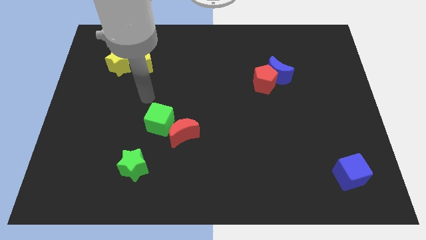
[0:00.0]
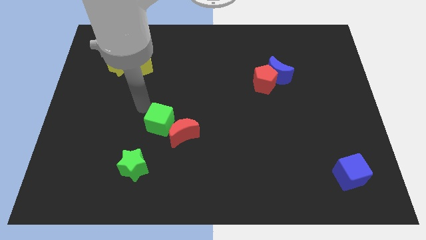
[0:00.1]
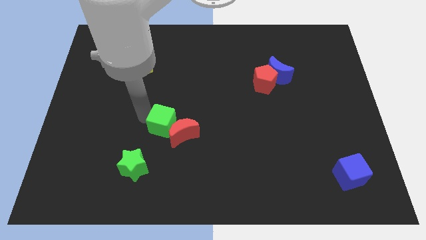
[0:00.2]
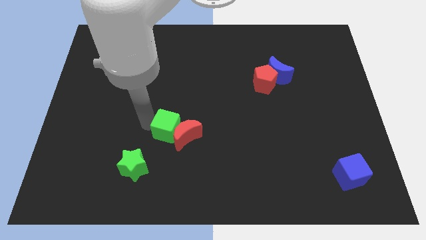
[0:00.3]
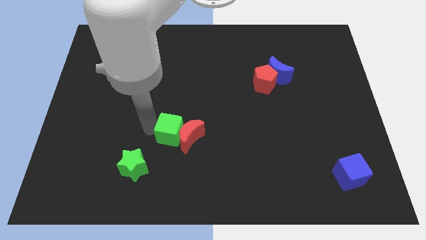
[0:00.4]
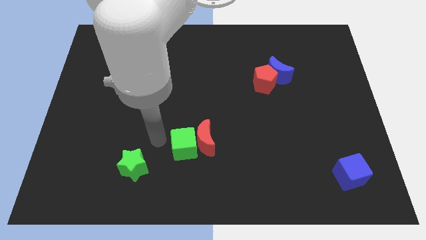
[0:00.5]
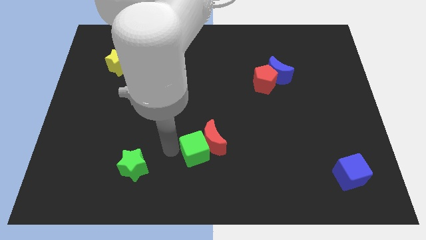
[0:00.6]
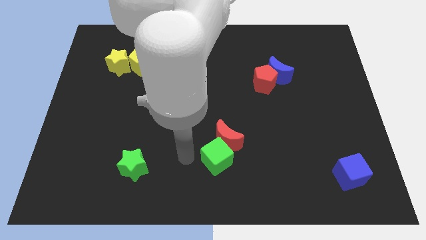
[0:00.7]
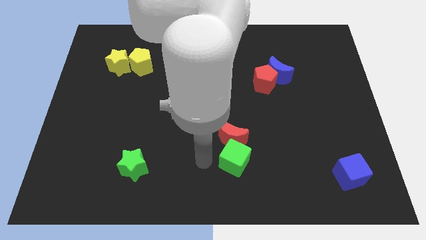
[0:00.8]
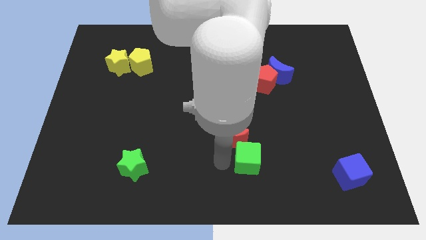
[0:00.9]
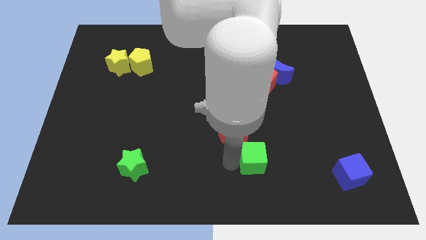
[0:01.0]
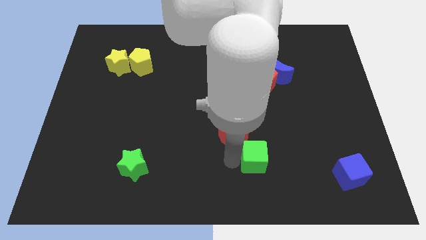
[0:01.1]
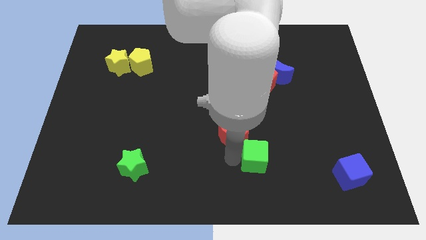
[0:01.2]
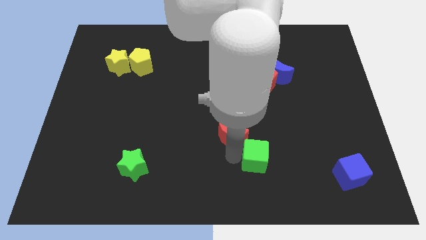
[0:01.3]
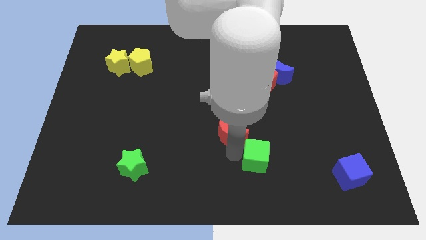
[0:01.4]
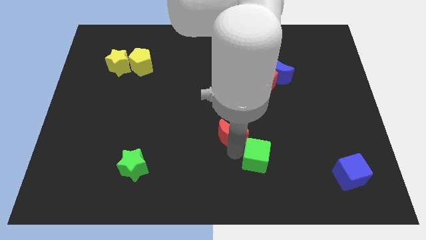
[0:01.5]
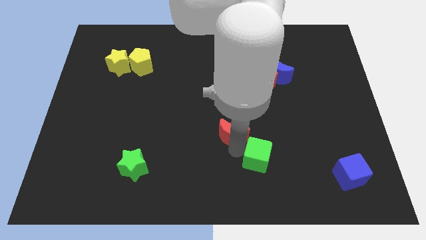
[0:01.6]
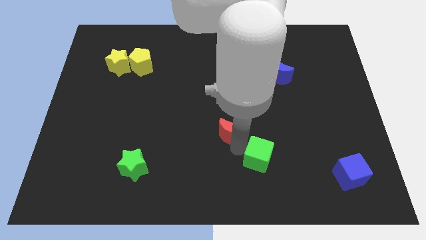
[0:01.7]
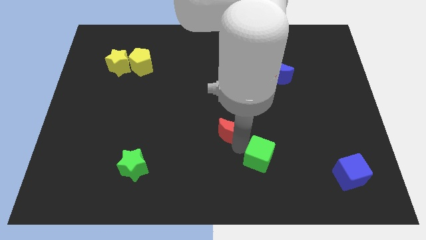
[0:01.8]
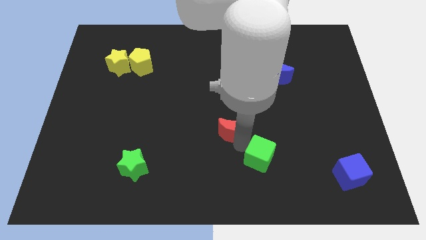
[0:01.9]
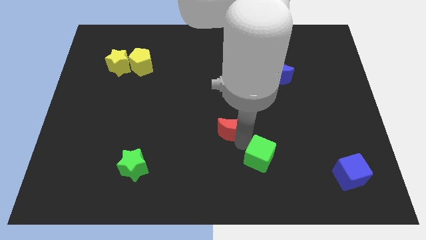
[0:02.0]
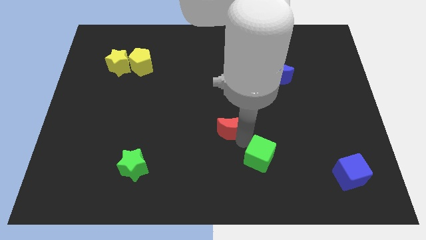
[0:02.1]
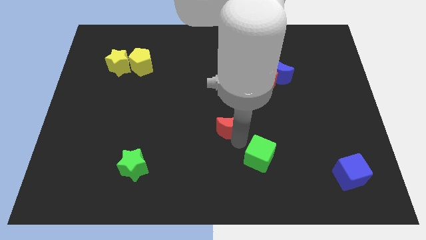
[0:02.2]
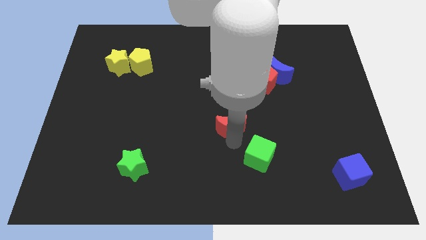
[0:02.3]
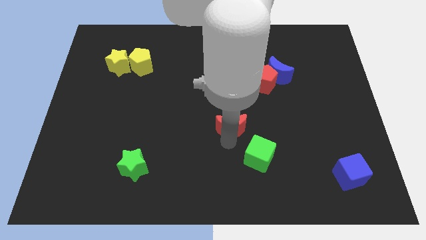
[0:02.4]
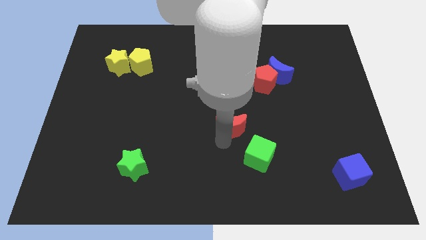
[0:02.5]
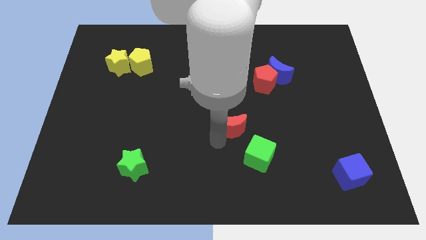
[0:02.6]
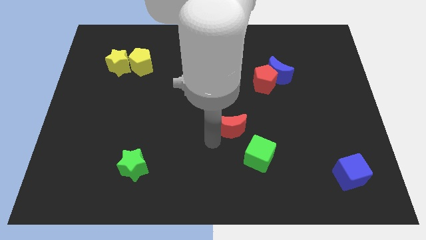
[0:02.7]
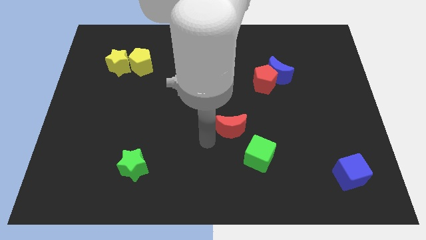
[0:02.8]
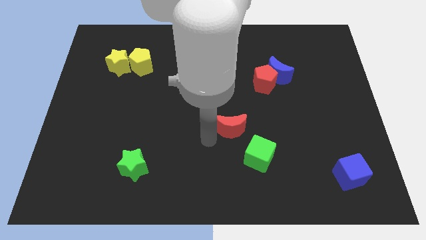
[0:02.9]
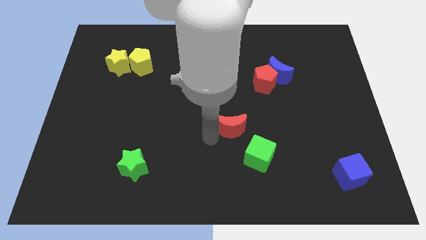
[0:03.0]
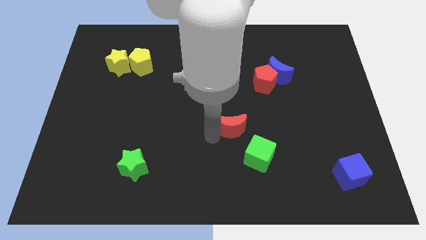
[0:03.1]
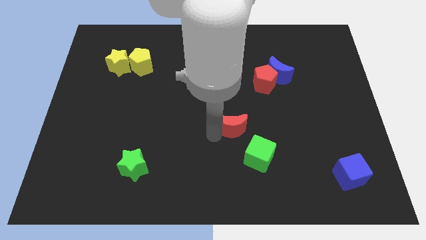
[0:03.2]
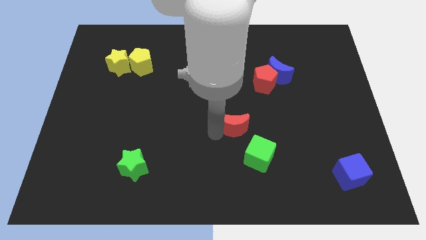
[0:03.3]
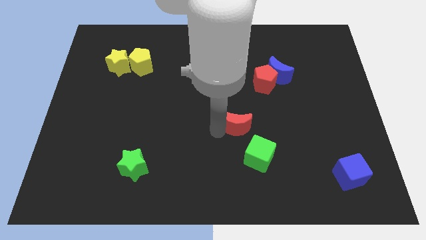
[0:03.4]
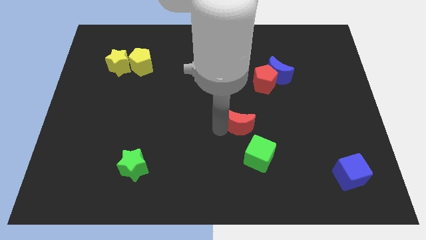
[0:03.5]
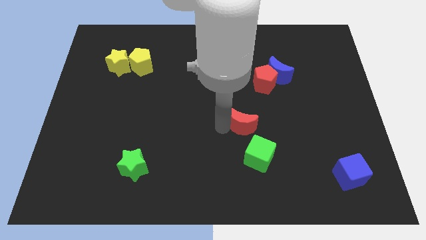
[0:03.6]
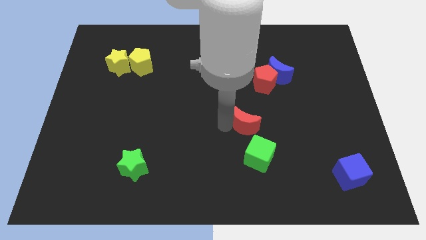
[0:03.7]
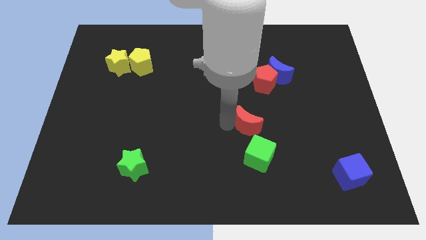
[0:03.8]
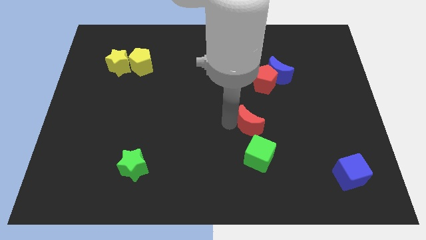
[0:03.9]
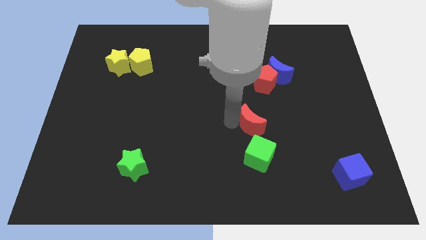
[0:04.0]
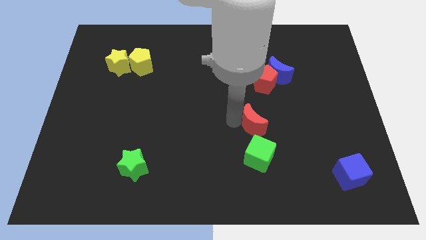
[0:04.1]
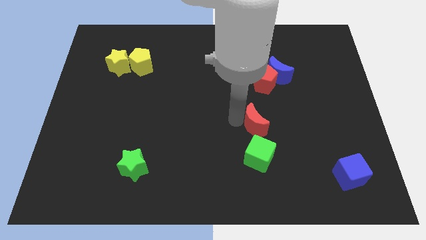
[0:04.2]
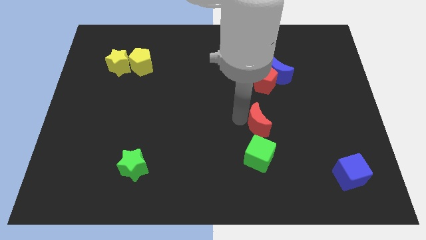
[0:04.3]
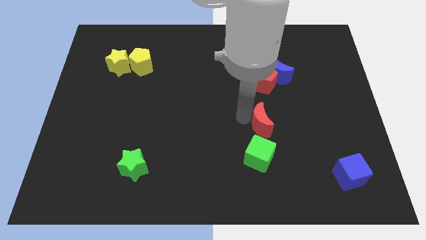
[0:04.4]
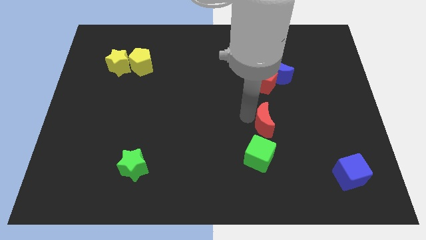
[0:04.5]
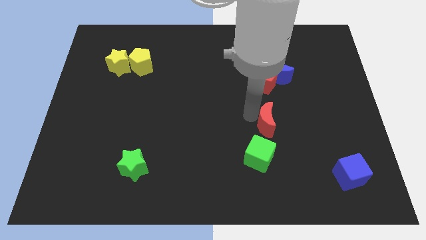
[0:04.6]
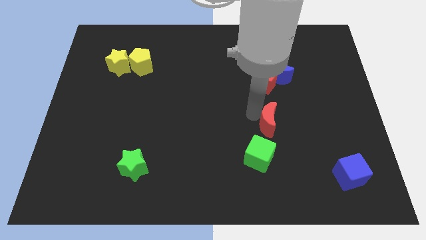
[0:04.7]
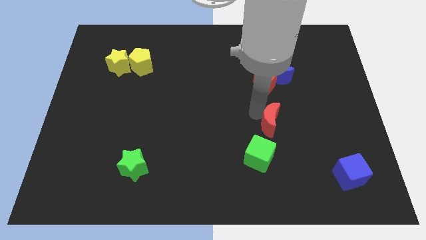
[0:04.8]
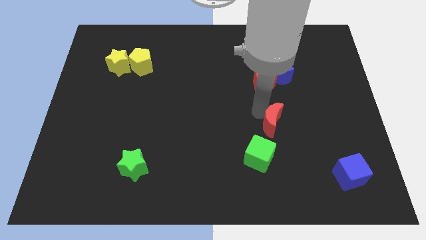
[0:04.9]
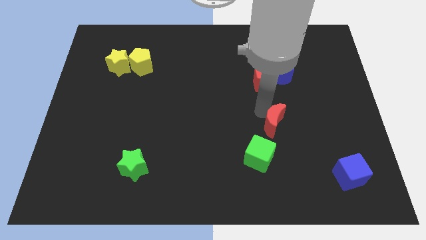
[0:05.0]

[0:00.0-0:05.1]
move the red moon right

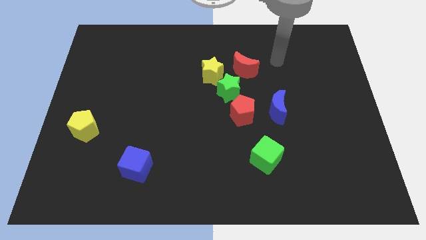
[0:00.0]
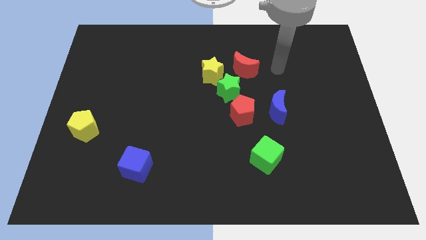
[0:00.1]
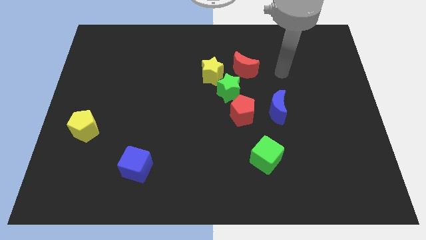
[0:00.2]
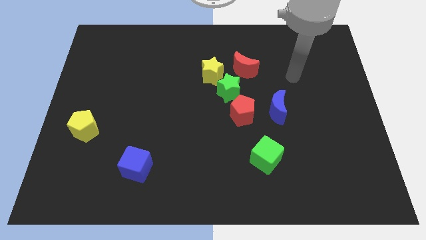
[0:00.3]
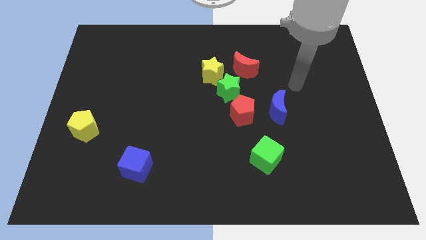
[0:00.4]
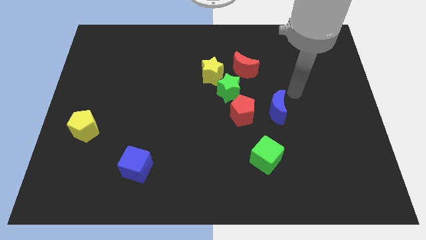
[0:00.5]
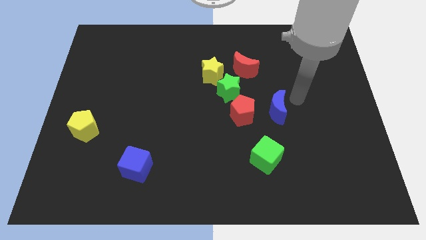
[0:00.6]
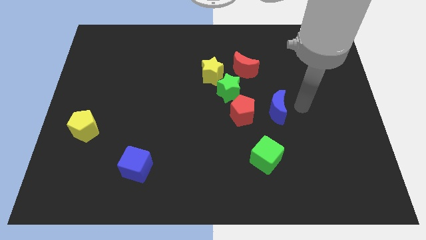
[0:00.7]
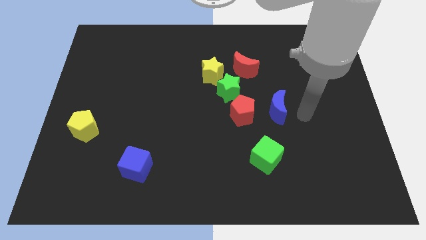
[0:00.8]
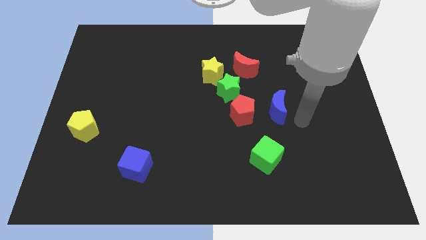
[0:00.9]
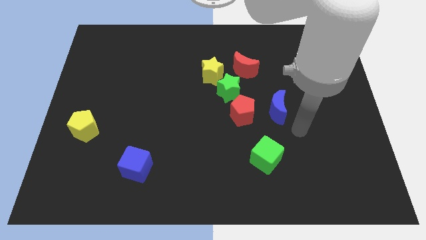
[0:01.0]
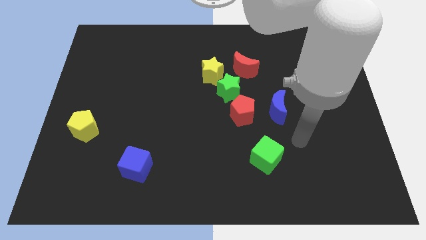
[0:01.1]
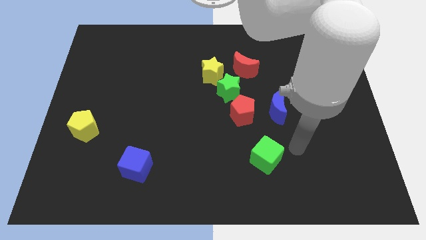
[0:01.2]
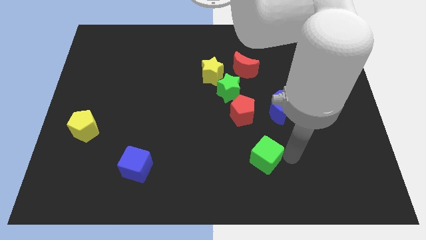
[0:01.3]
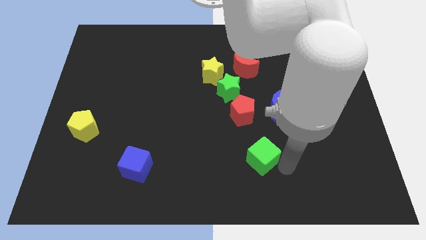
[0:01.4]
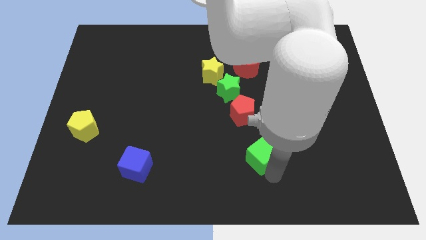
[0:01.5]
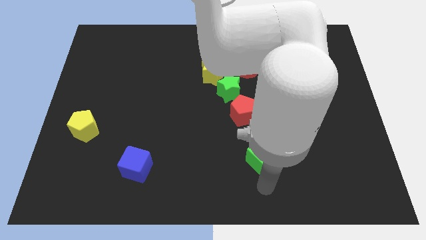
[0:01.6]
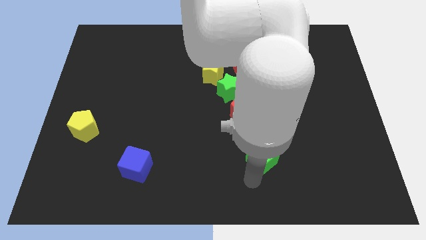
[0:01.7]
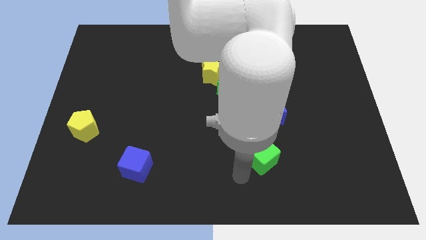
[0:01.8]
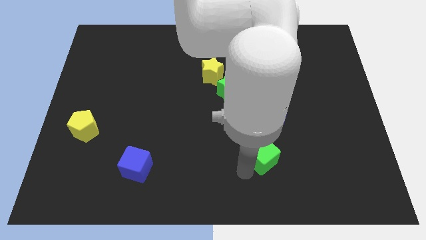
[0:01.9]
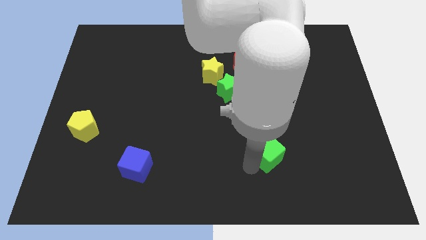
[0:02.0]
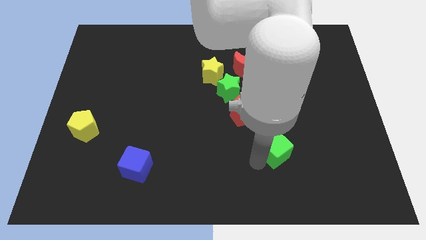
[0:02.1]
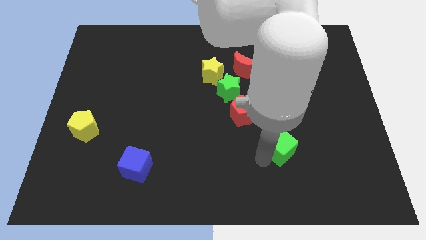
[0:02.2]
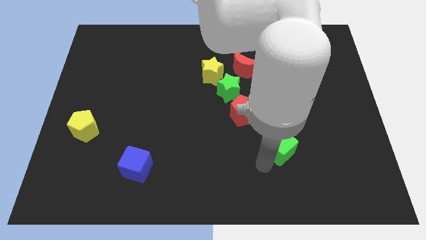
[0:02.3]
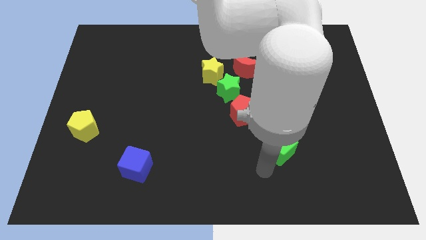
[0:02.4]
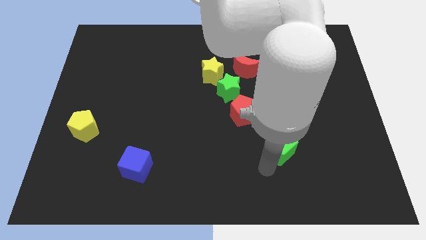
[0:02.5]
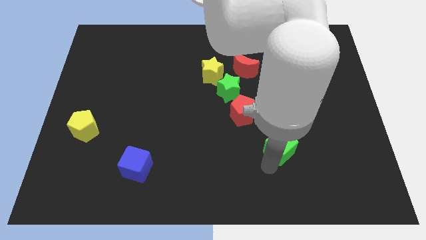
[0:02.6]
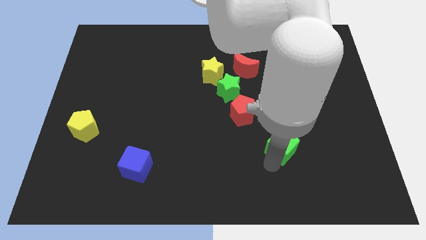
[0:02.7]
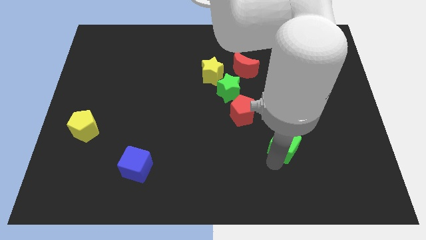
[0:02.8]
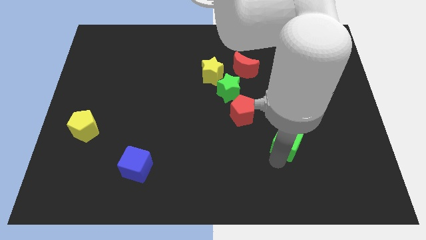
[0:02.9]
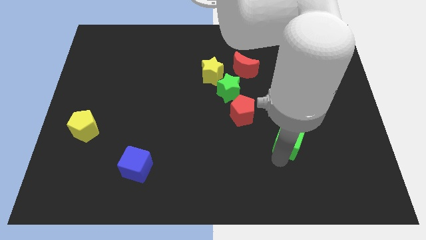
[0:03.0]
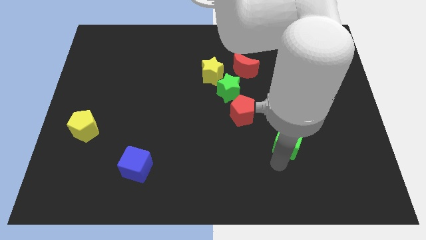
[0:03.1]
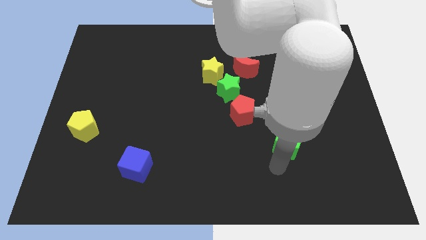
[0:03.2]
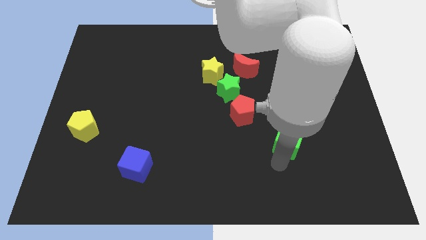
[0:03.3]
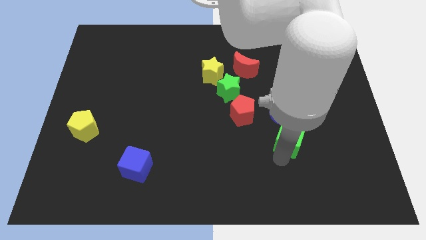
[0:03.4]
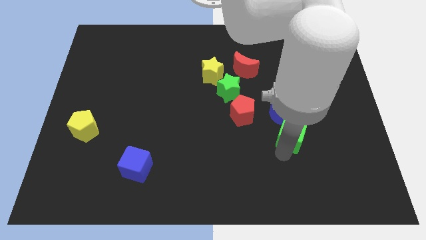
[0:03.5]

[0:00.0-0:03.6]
move the green cube upwards and then to the right a little
